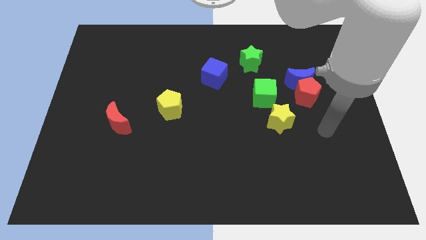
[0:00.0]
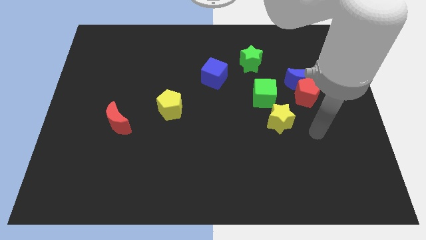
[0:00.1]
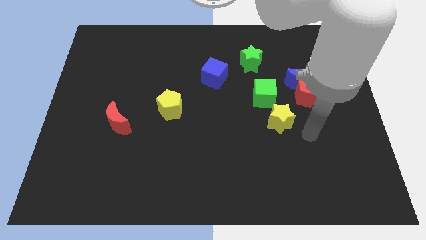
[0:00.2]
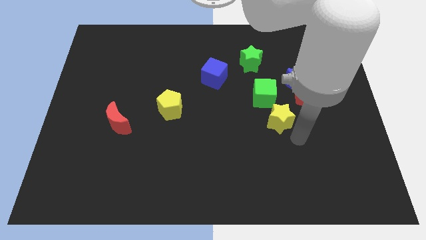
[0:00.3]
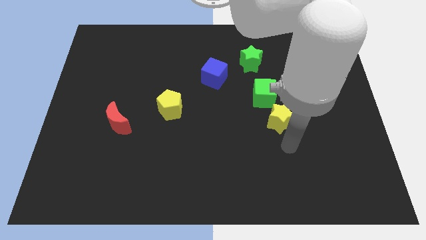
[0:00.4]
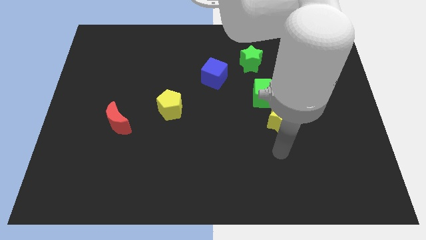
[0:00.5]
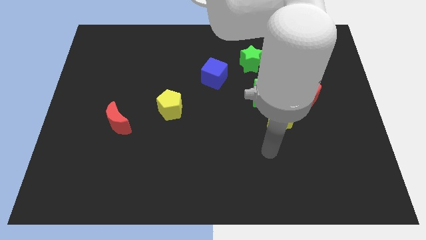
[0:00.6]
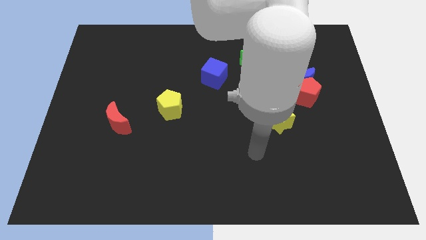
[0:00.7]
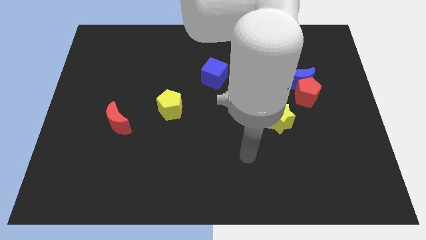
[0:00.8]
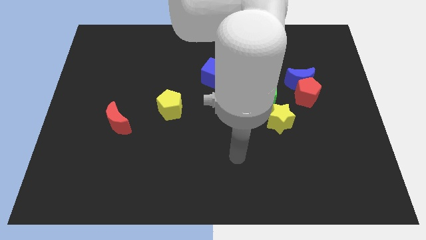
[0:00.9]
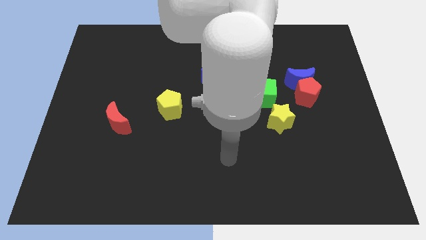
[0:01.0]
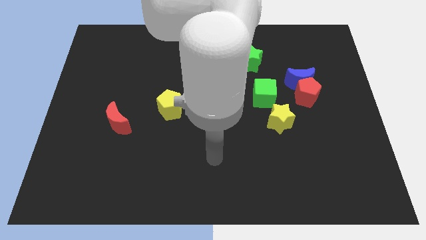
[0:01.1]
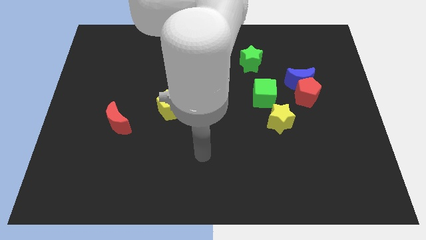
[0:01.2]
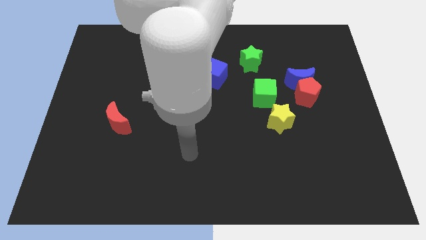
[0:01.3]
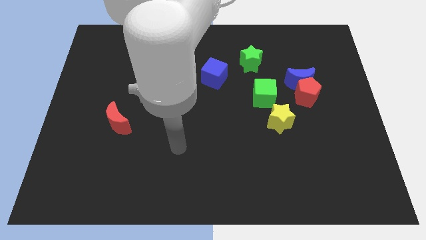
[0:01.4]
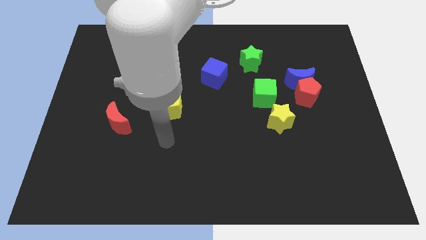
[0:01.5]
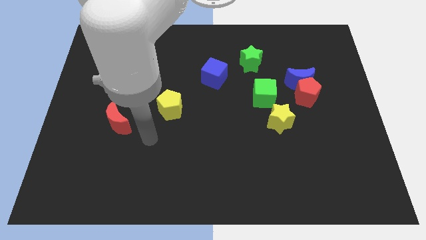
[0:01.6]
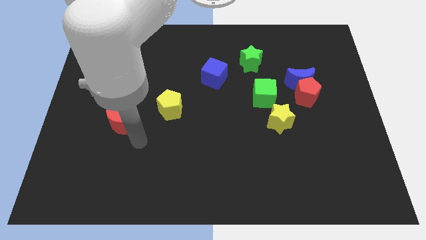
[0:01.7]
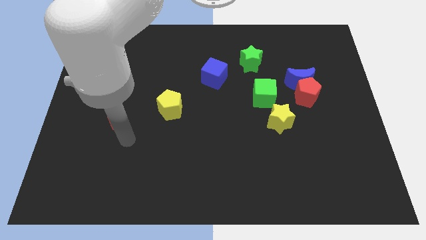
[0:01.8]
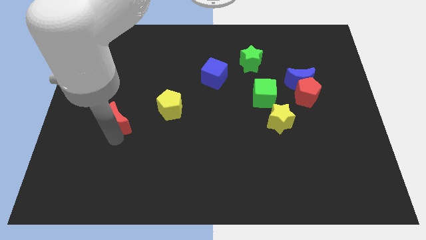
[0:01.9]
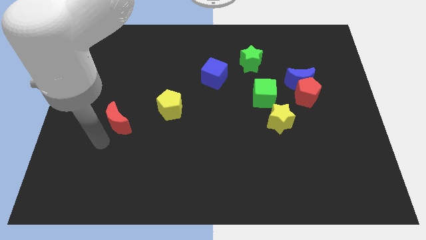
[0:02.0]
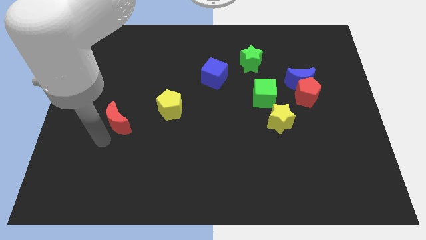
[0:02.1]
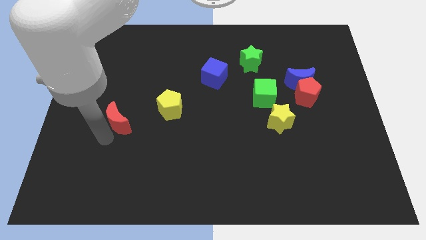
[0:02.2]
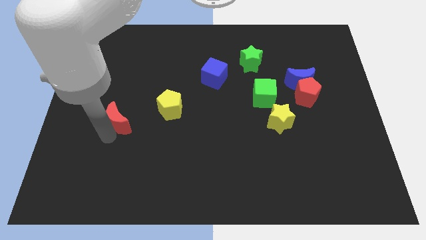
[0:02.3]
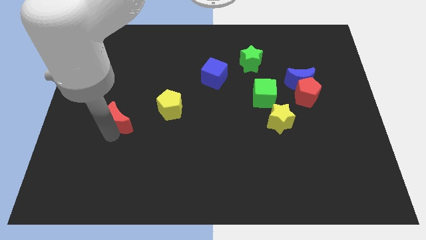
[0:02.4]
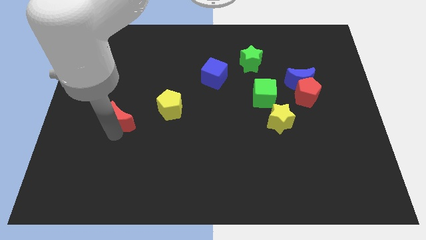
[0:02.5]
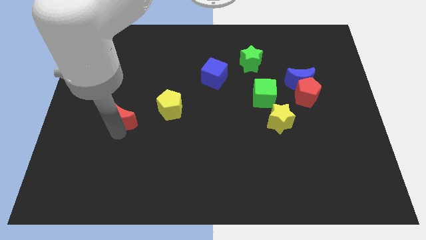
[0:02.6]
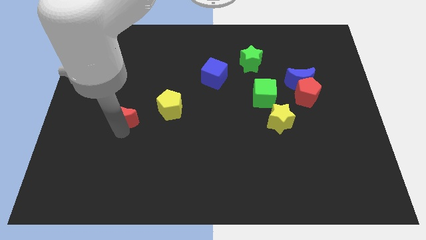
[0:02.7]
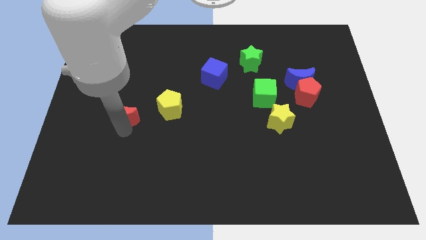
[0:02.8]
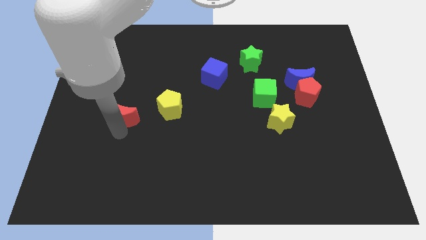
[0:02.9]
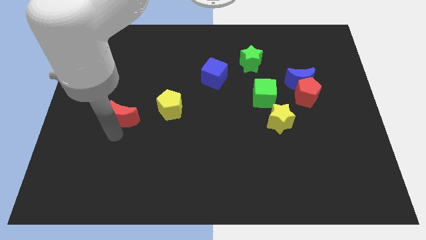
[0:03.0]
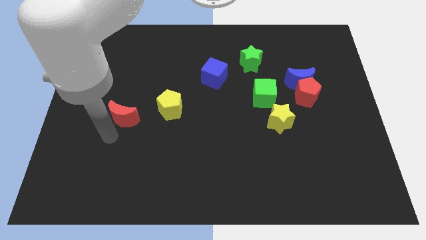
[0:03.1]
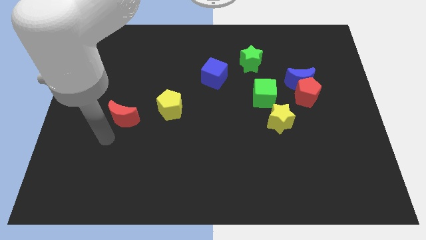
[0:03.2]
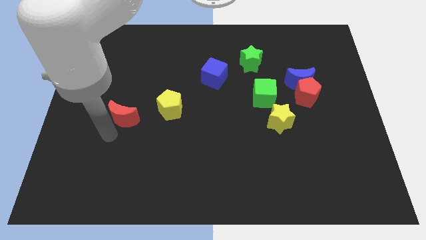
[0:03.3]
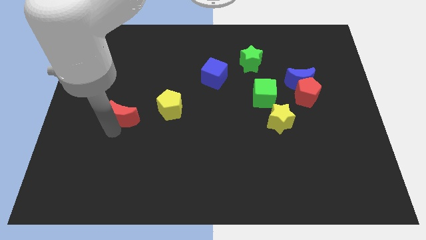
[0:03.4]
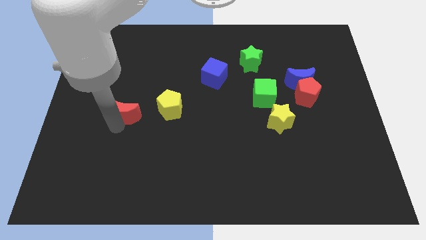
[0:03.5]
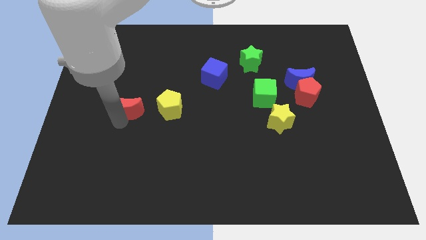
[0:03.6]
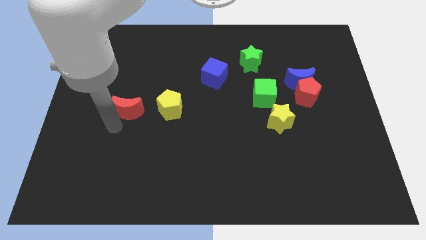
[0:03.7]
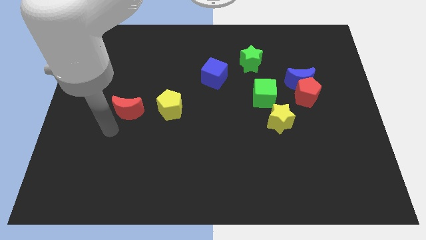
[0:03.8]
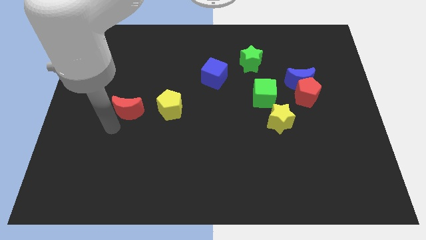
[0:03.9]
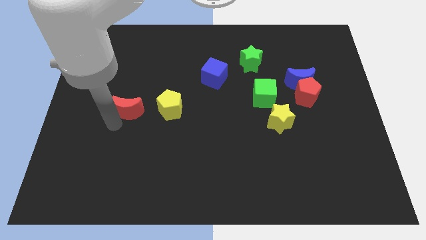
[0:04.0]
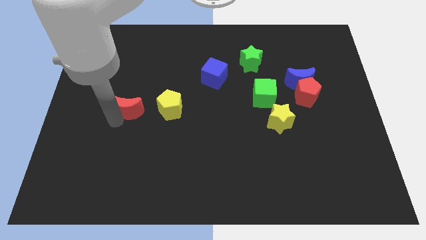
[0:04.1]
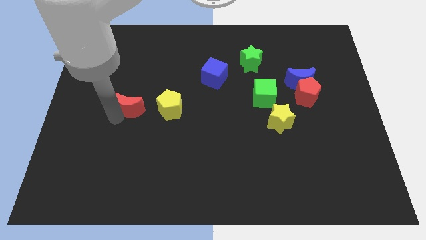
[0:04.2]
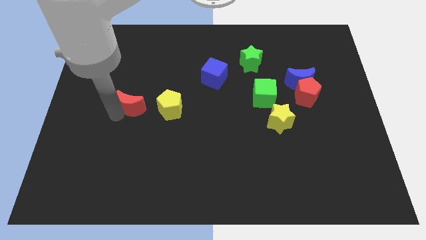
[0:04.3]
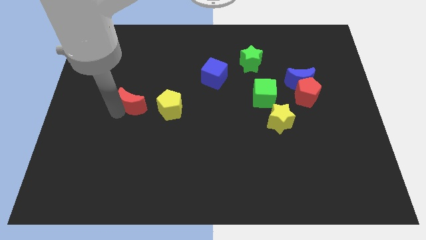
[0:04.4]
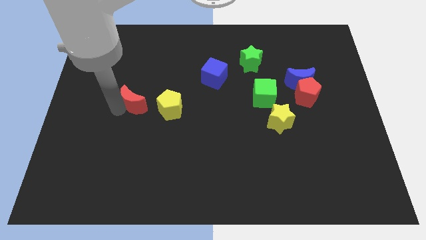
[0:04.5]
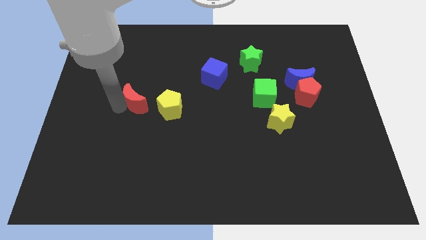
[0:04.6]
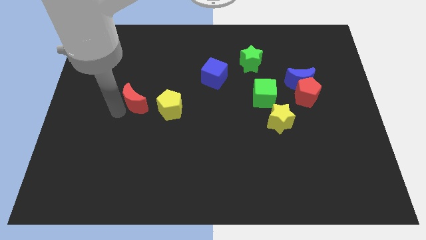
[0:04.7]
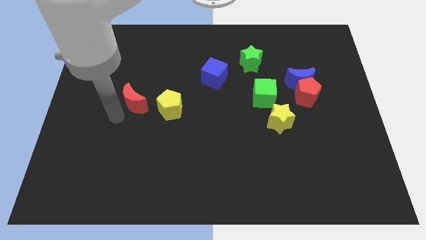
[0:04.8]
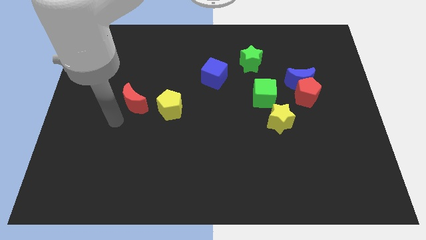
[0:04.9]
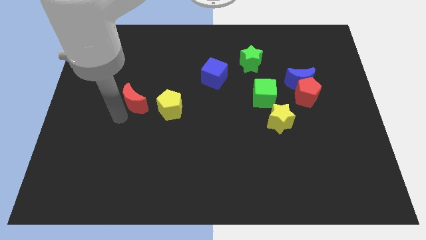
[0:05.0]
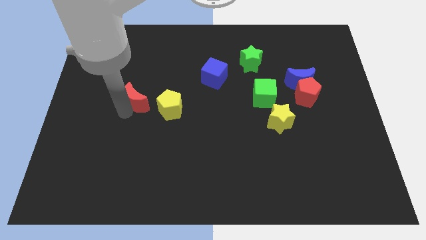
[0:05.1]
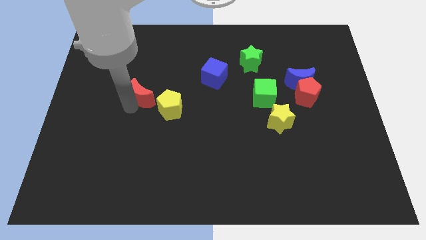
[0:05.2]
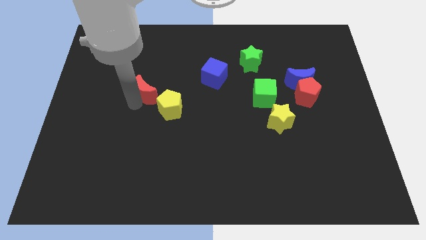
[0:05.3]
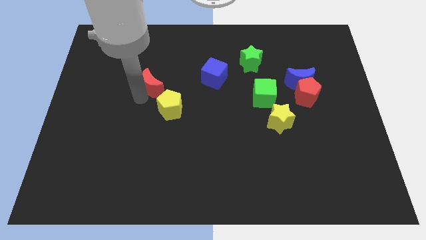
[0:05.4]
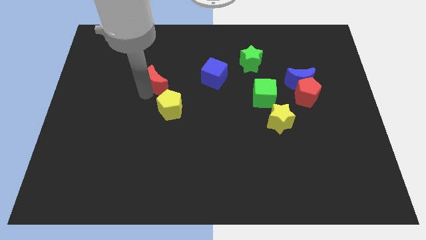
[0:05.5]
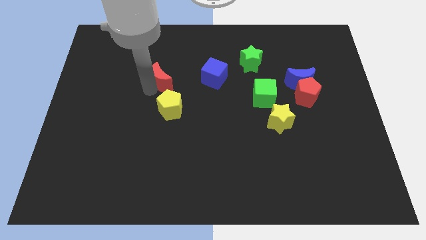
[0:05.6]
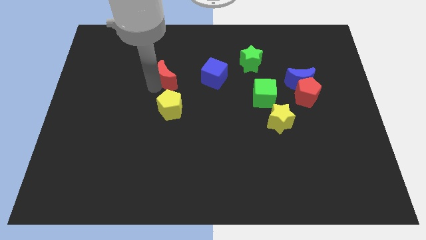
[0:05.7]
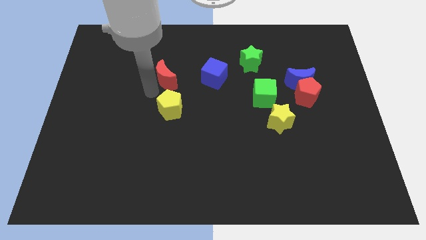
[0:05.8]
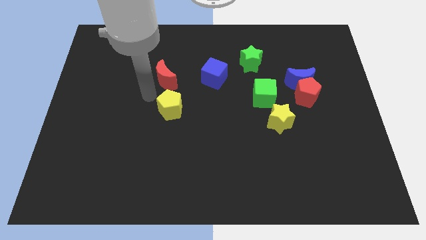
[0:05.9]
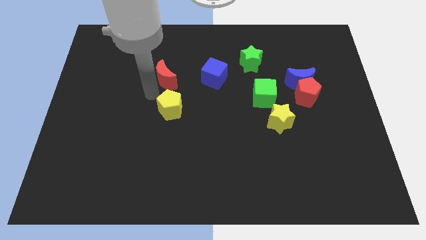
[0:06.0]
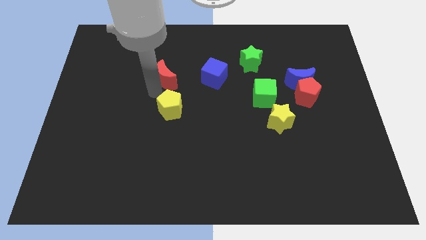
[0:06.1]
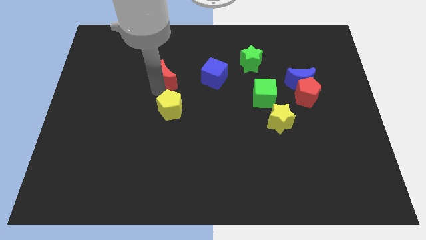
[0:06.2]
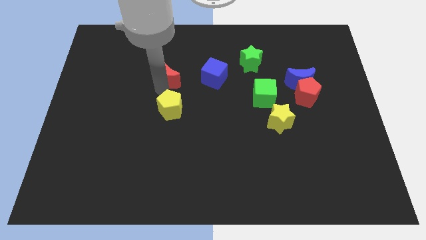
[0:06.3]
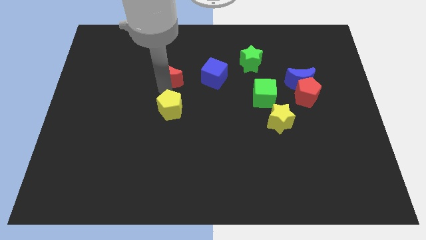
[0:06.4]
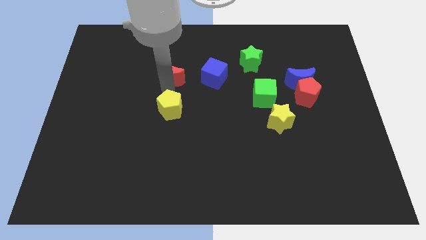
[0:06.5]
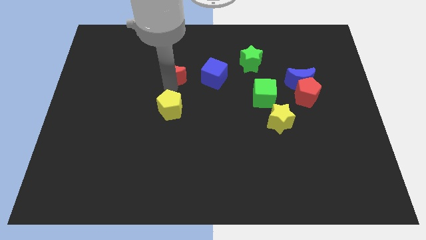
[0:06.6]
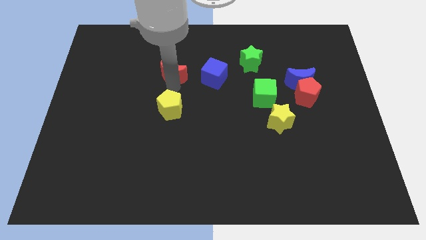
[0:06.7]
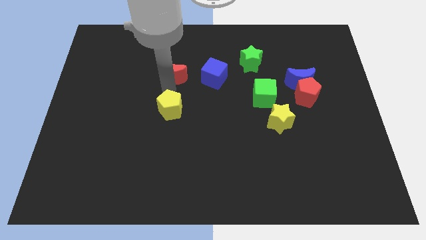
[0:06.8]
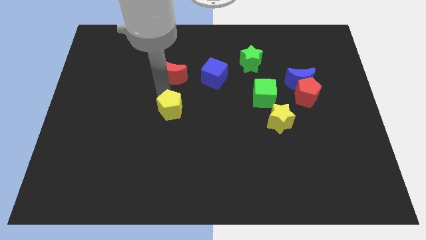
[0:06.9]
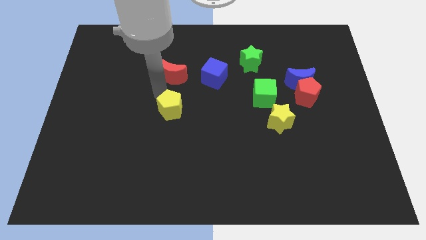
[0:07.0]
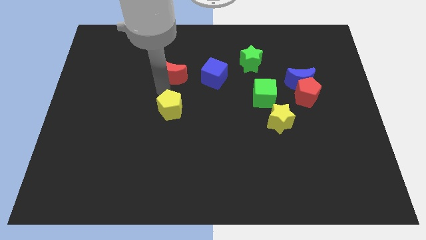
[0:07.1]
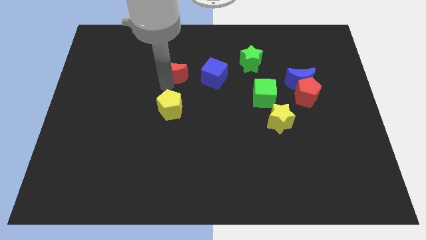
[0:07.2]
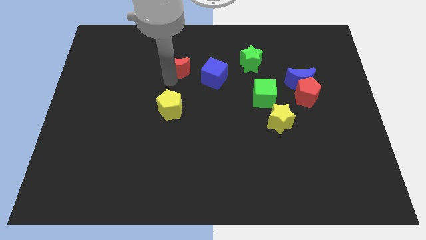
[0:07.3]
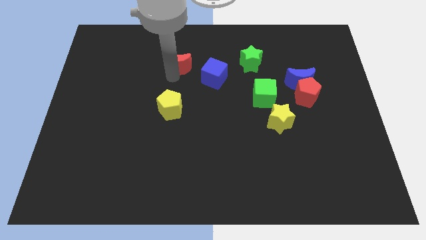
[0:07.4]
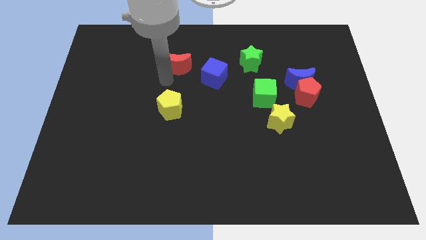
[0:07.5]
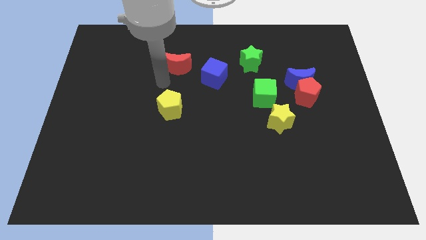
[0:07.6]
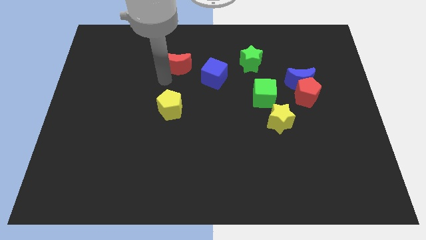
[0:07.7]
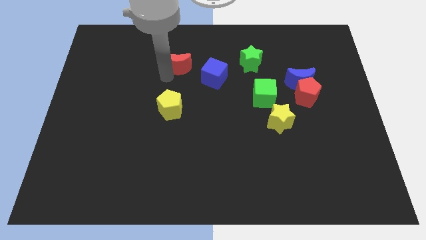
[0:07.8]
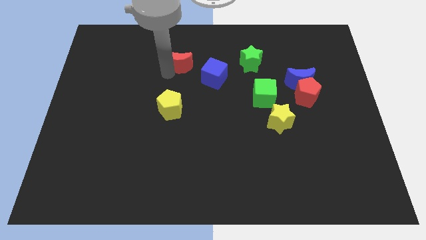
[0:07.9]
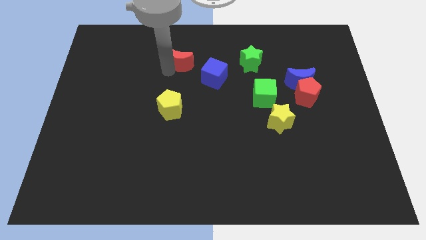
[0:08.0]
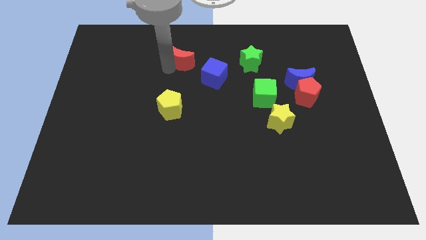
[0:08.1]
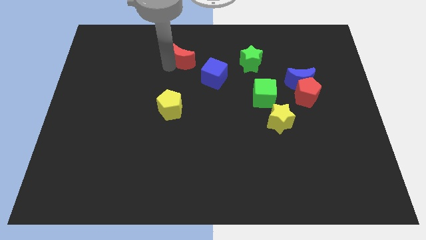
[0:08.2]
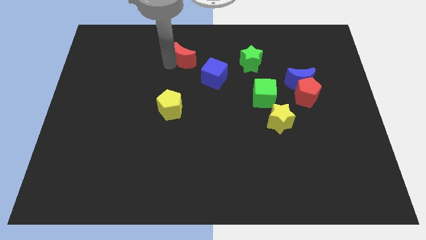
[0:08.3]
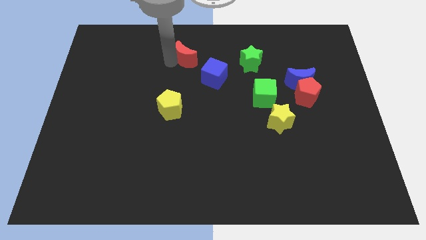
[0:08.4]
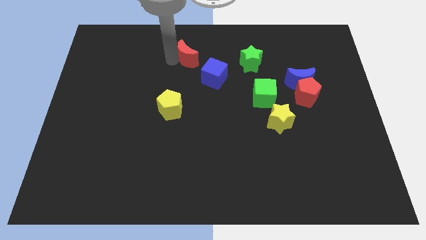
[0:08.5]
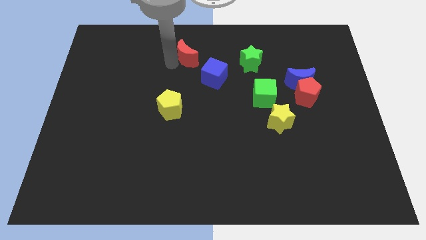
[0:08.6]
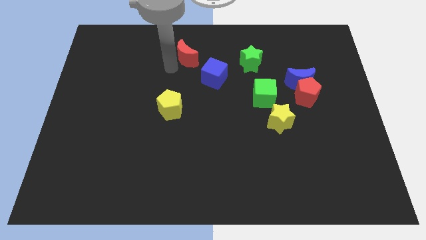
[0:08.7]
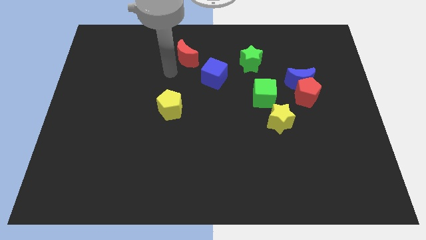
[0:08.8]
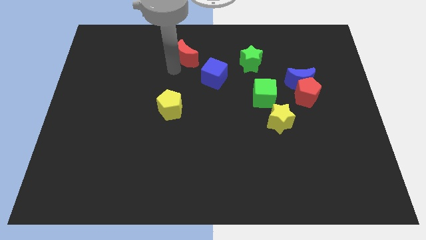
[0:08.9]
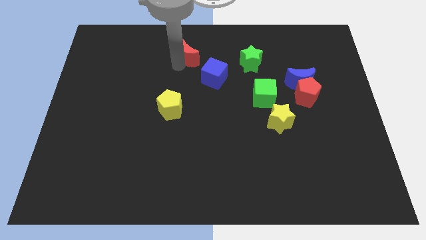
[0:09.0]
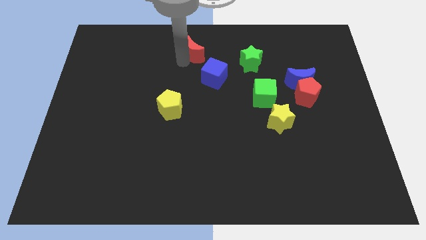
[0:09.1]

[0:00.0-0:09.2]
put the red moon to the top
